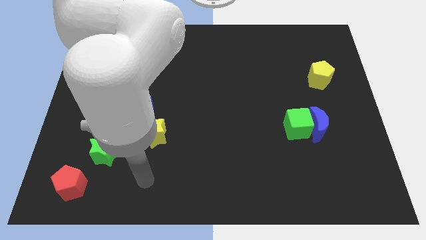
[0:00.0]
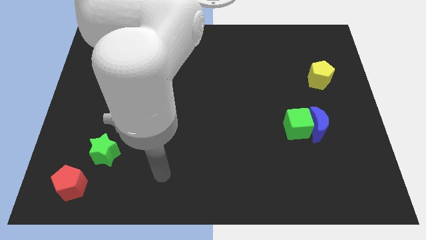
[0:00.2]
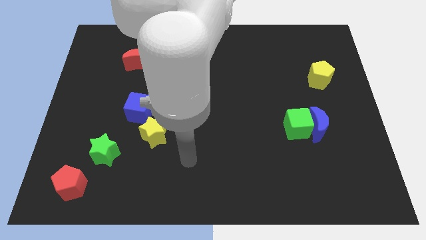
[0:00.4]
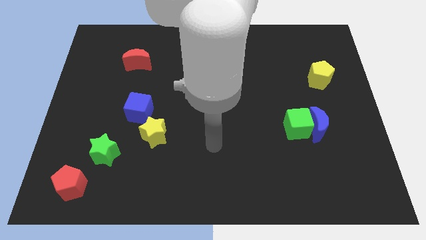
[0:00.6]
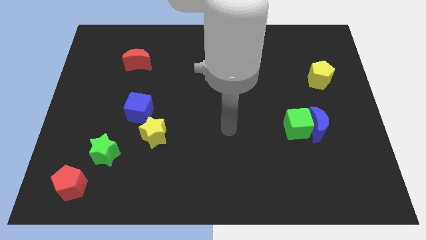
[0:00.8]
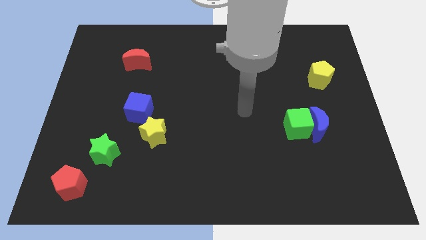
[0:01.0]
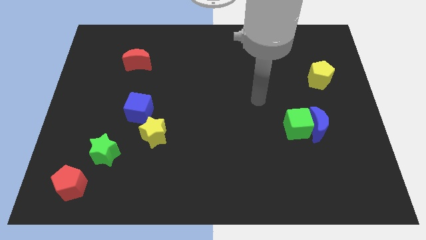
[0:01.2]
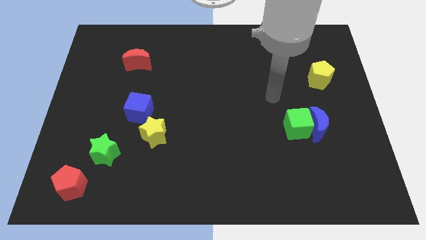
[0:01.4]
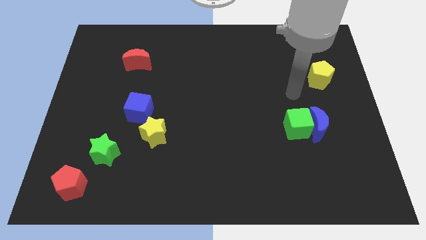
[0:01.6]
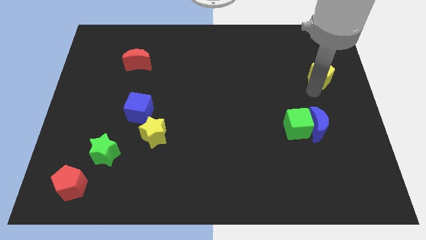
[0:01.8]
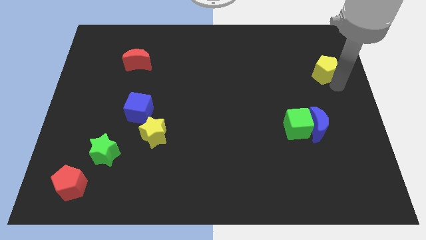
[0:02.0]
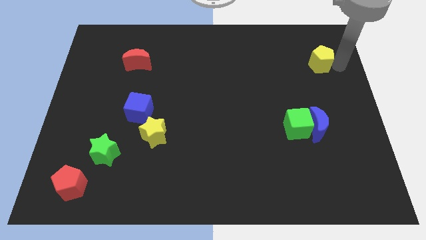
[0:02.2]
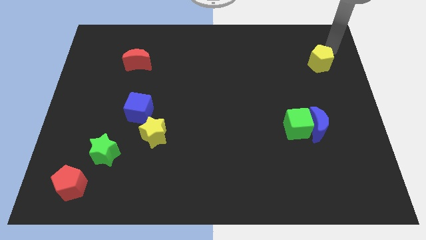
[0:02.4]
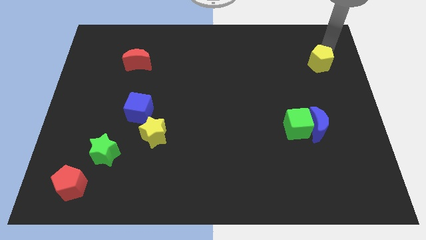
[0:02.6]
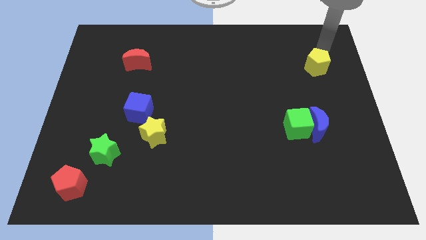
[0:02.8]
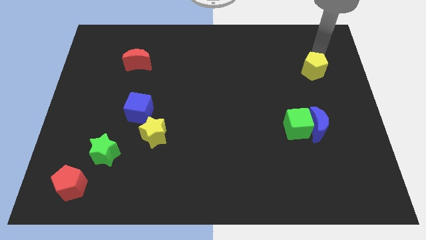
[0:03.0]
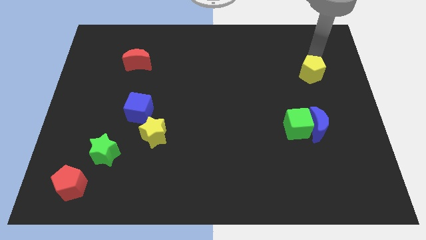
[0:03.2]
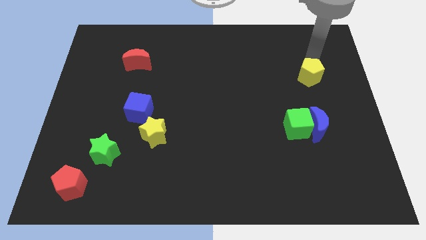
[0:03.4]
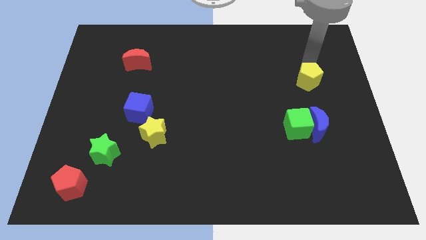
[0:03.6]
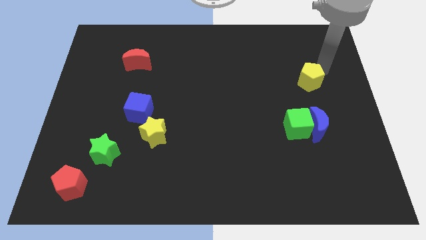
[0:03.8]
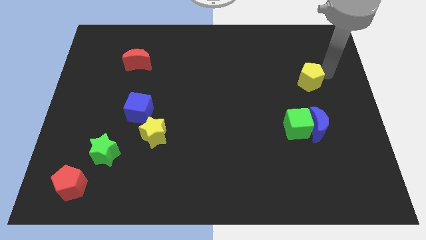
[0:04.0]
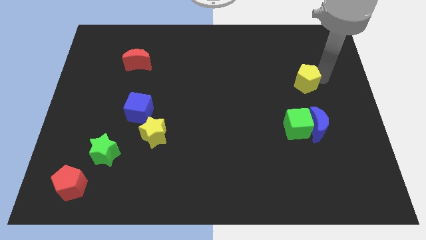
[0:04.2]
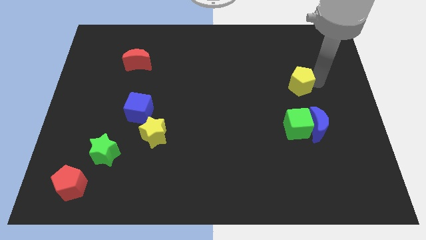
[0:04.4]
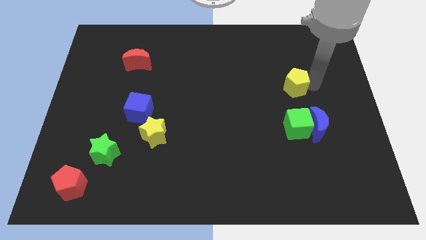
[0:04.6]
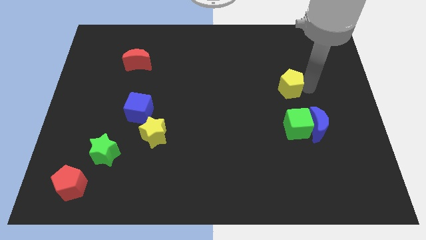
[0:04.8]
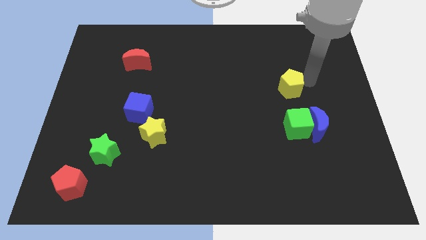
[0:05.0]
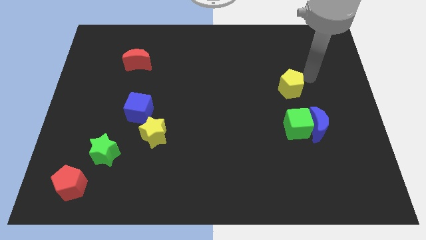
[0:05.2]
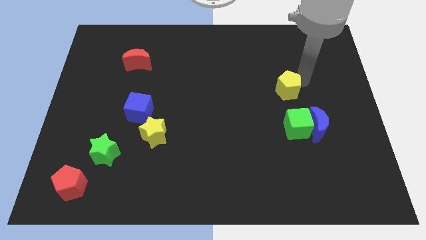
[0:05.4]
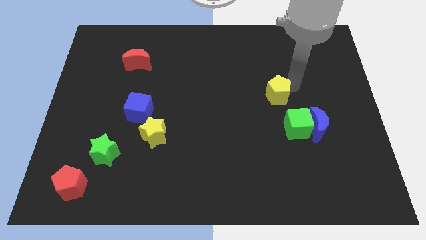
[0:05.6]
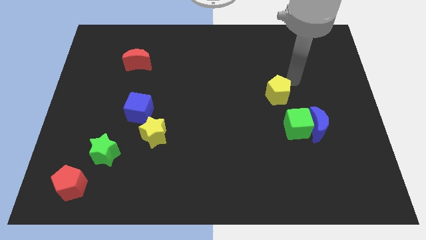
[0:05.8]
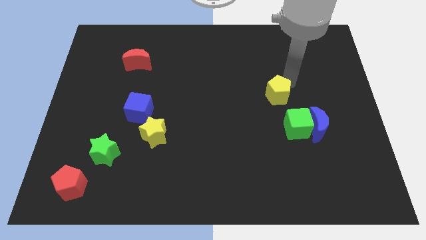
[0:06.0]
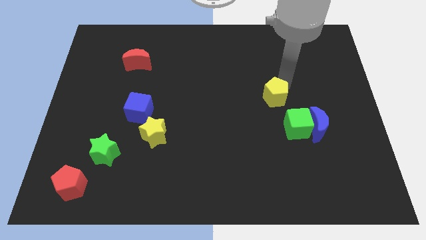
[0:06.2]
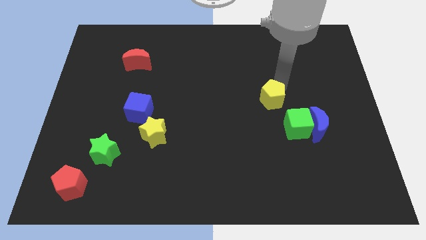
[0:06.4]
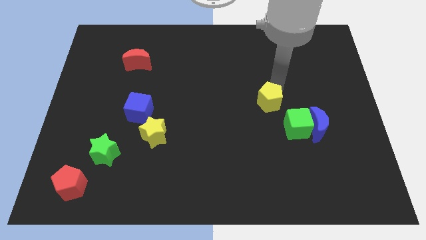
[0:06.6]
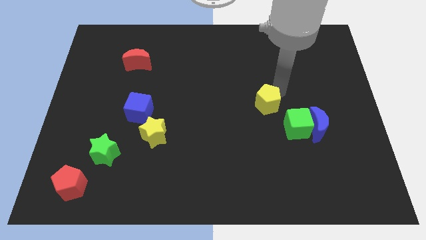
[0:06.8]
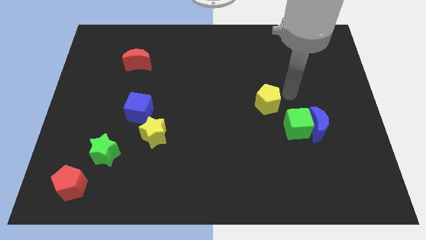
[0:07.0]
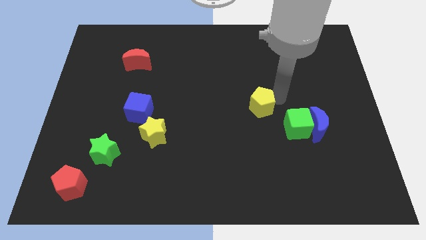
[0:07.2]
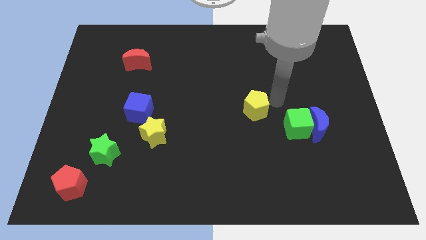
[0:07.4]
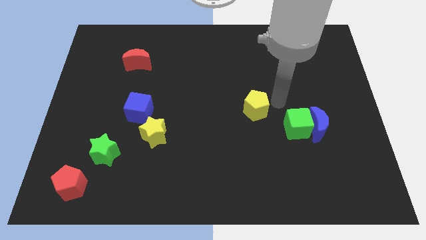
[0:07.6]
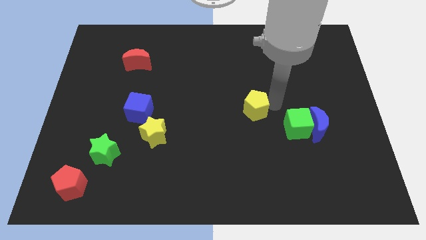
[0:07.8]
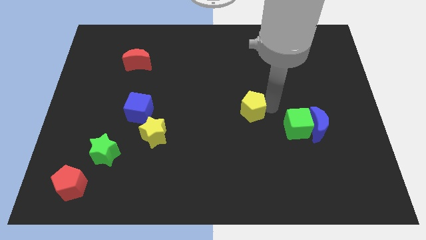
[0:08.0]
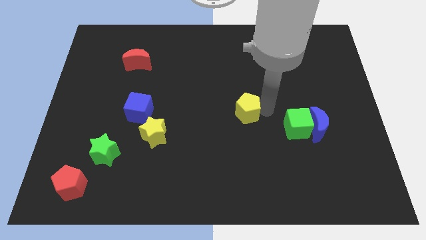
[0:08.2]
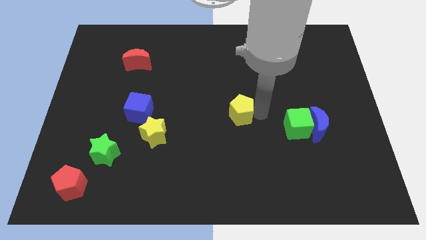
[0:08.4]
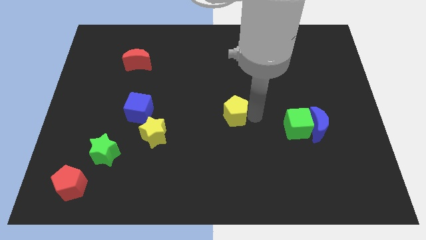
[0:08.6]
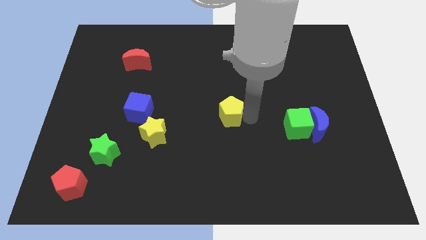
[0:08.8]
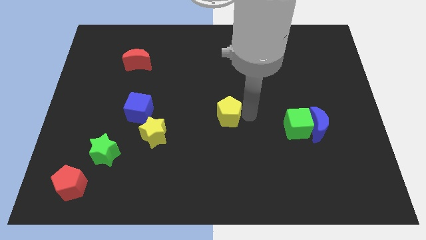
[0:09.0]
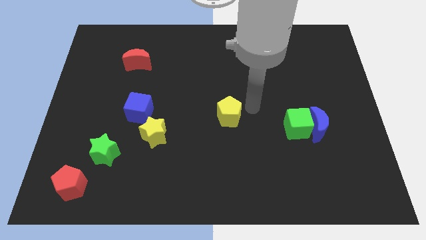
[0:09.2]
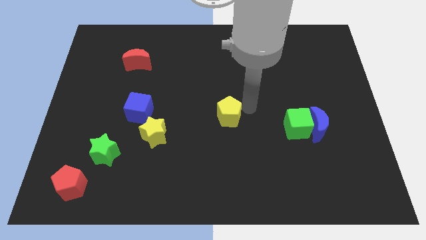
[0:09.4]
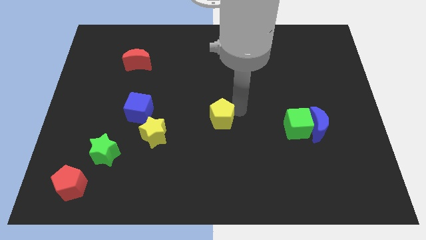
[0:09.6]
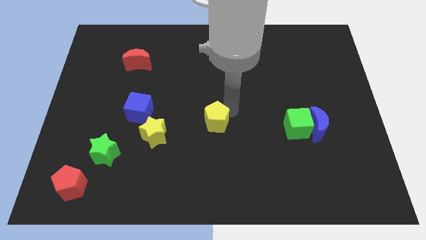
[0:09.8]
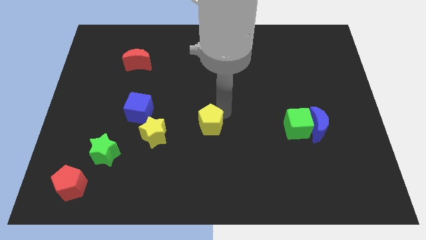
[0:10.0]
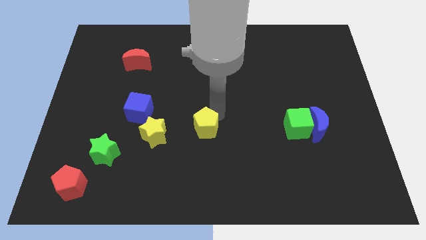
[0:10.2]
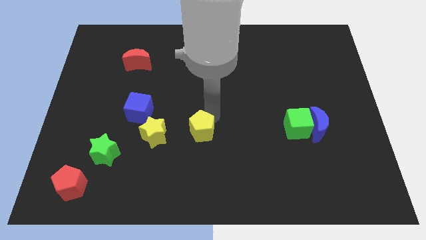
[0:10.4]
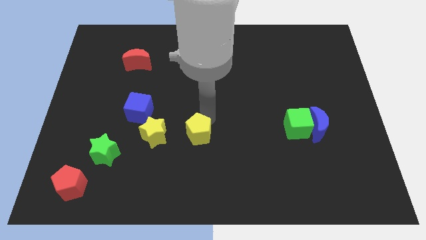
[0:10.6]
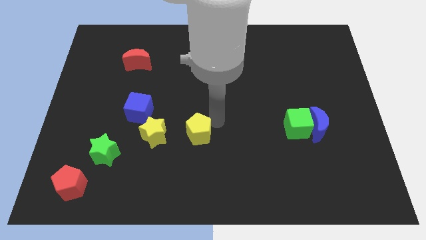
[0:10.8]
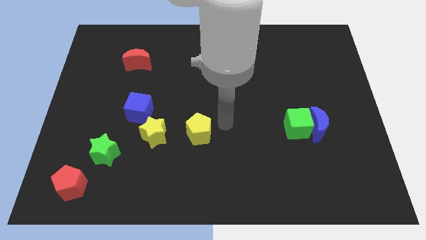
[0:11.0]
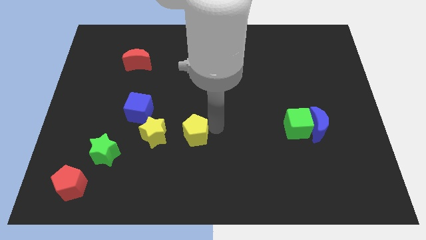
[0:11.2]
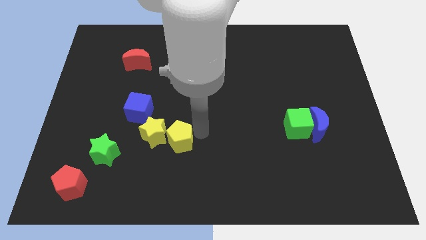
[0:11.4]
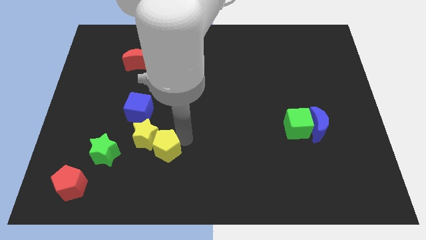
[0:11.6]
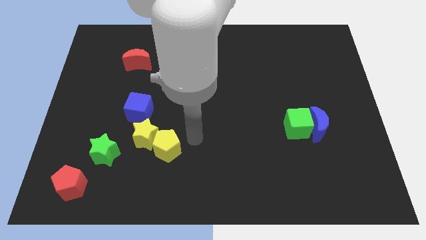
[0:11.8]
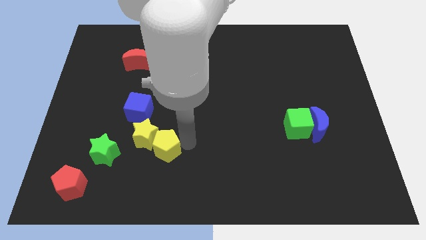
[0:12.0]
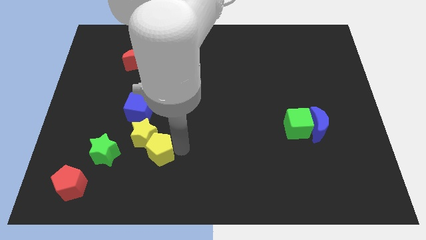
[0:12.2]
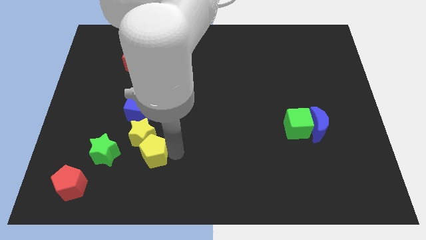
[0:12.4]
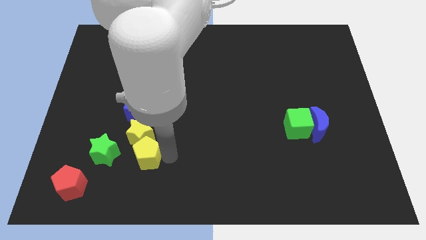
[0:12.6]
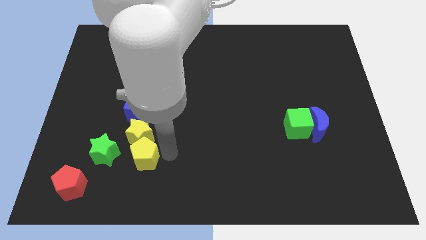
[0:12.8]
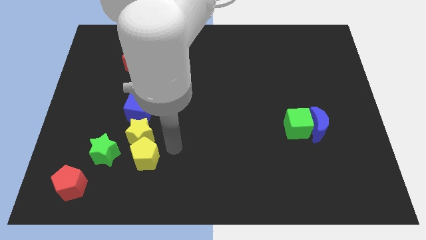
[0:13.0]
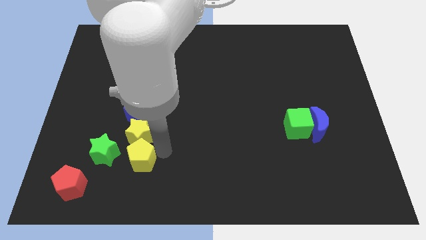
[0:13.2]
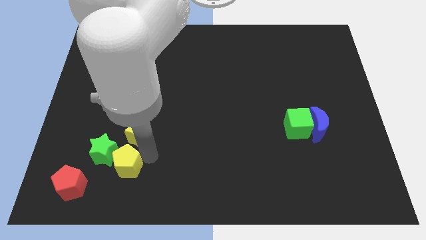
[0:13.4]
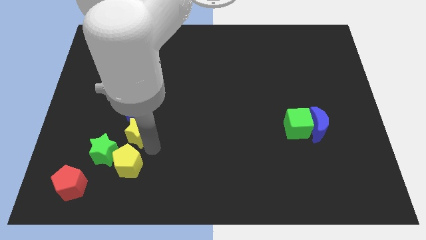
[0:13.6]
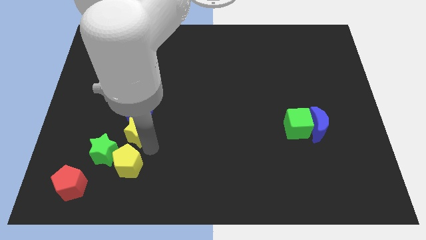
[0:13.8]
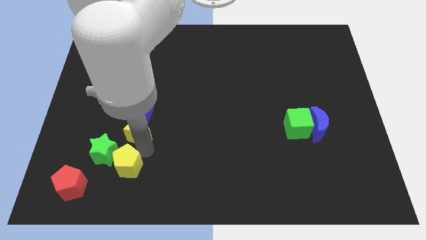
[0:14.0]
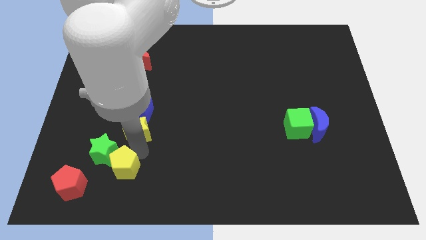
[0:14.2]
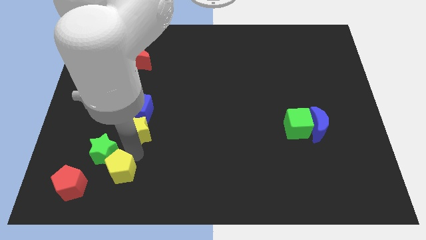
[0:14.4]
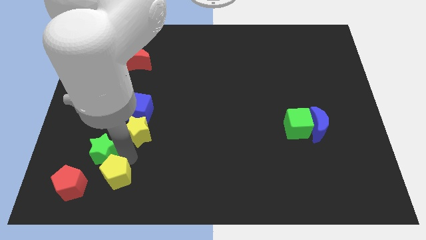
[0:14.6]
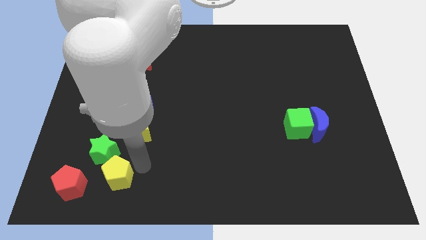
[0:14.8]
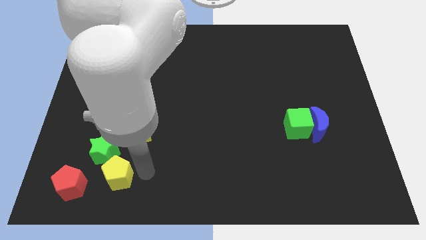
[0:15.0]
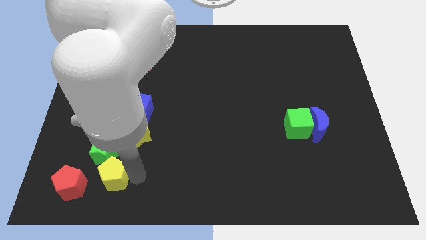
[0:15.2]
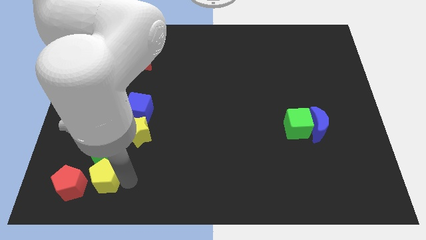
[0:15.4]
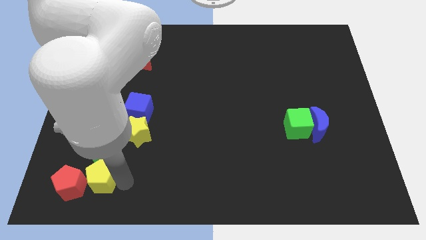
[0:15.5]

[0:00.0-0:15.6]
push the yellow pentagon close to the red pentagon
